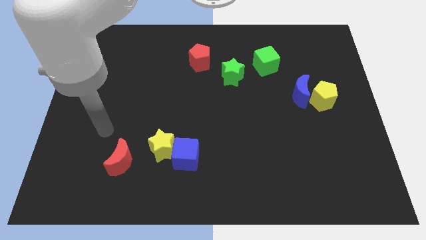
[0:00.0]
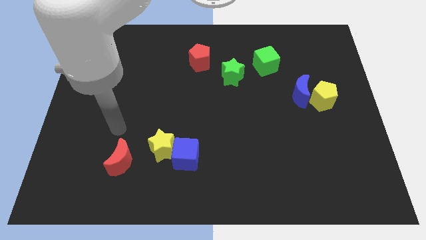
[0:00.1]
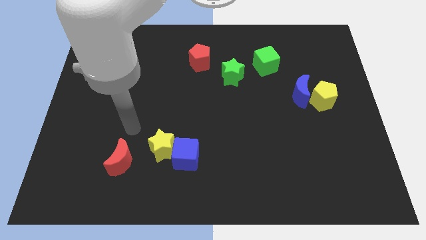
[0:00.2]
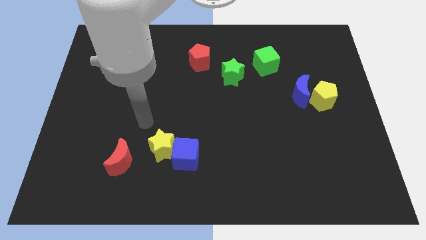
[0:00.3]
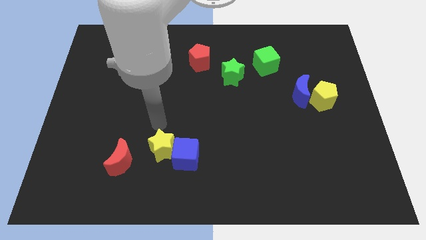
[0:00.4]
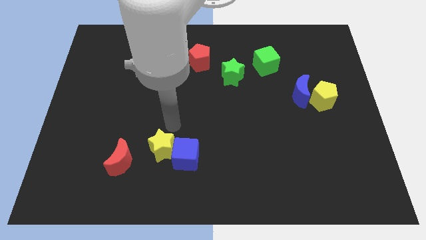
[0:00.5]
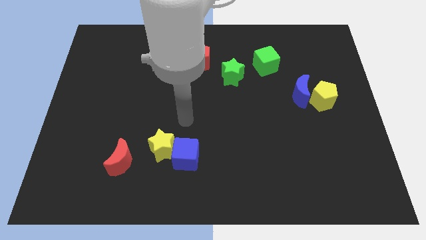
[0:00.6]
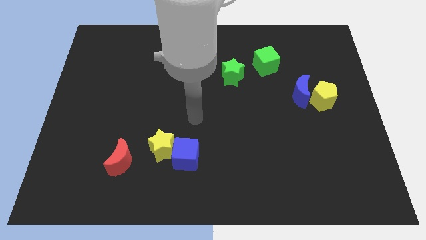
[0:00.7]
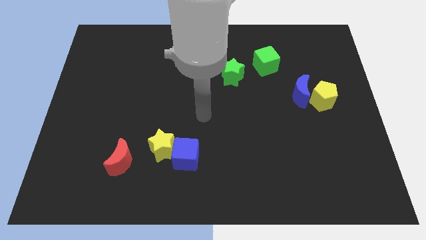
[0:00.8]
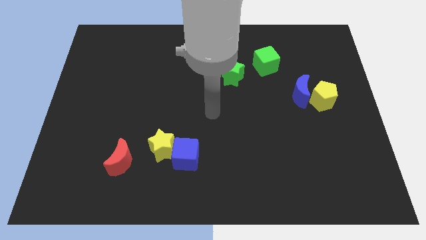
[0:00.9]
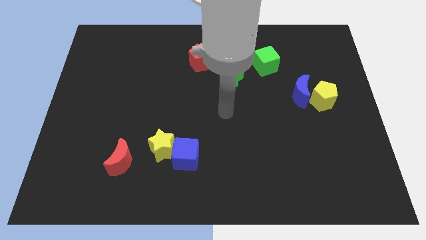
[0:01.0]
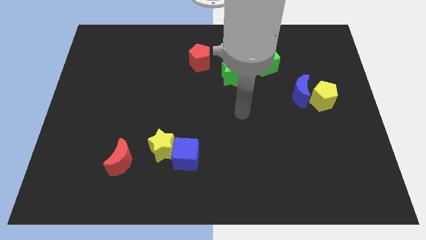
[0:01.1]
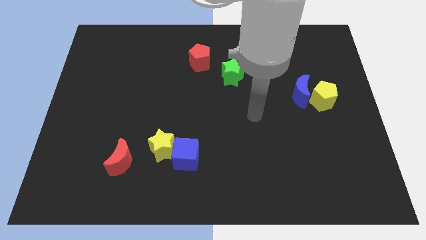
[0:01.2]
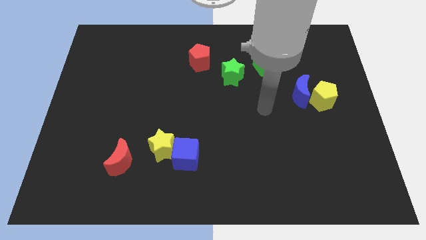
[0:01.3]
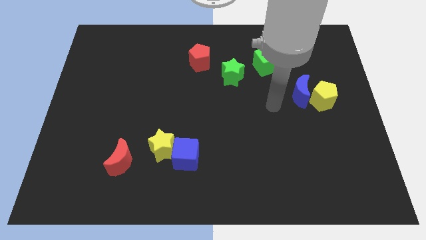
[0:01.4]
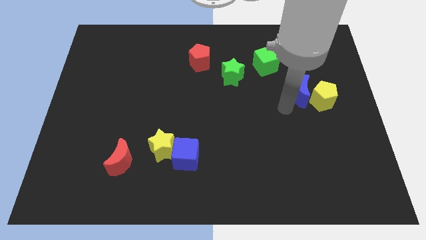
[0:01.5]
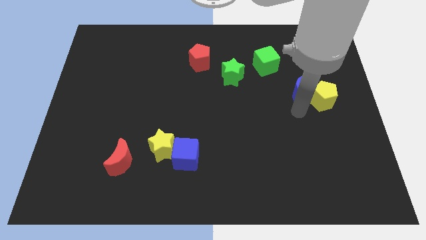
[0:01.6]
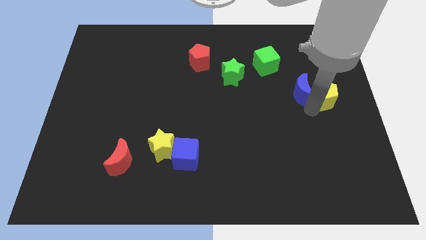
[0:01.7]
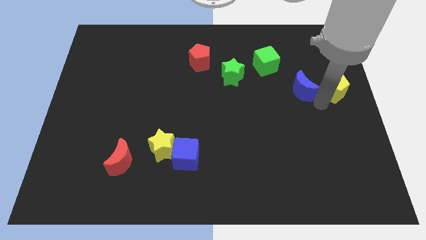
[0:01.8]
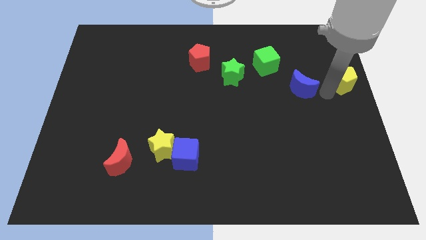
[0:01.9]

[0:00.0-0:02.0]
separate the blue moon from the yellow pentagon

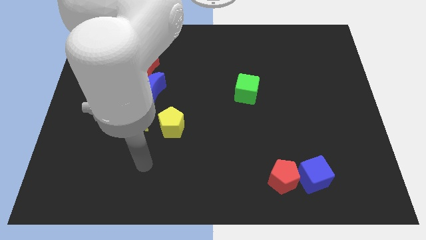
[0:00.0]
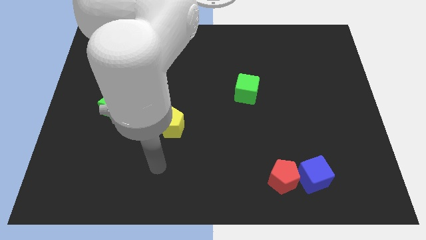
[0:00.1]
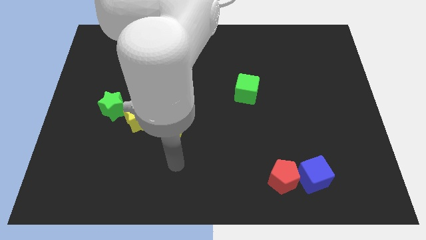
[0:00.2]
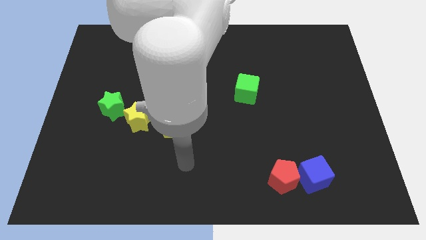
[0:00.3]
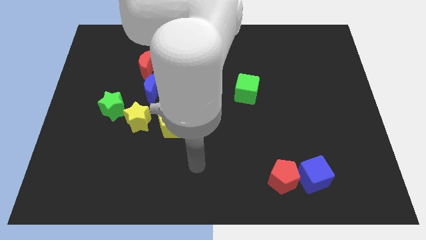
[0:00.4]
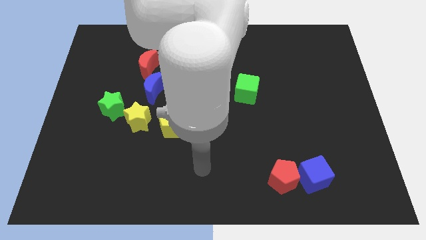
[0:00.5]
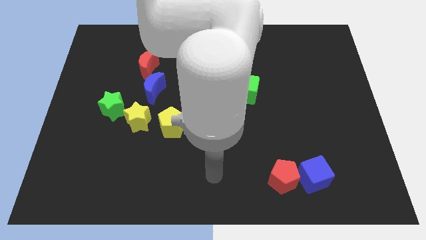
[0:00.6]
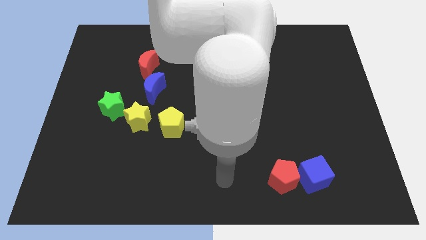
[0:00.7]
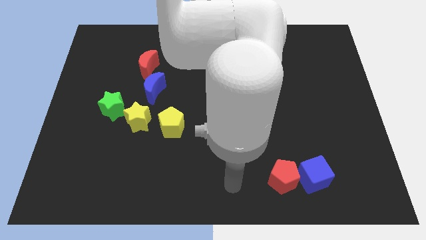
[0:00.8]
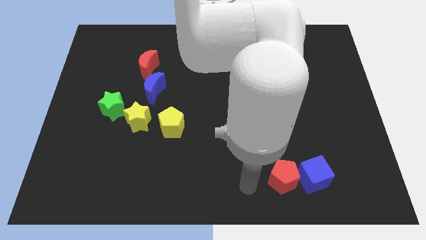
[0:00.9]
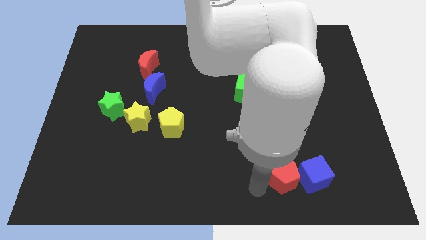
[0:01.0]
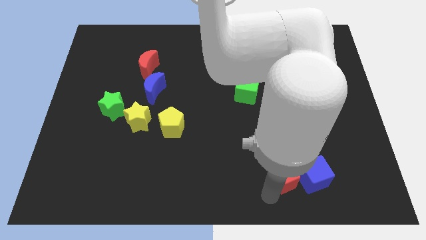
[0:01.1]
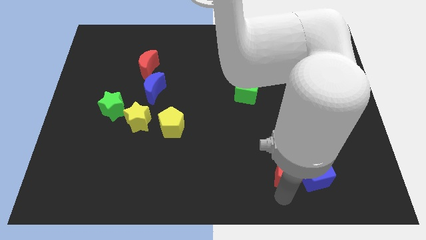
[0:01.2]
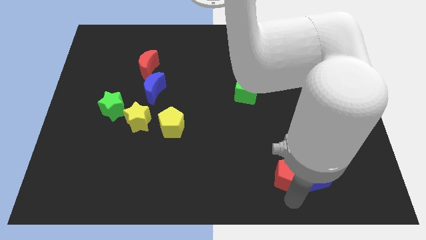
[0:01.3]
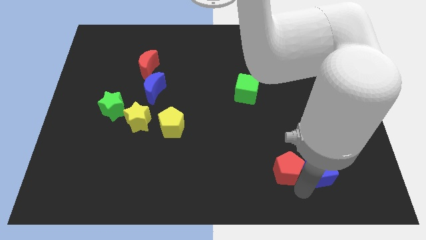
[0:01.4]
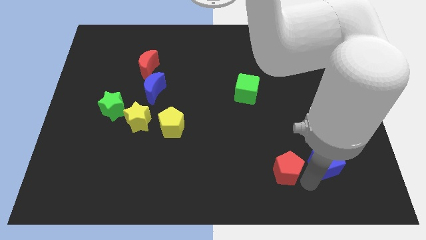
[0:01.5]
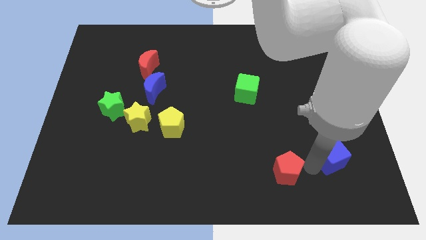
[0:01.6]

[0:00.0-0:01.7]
separate the red pentagon from the blue cube

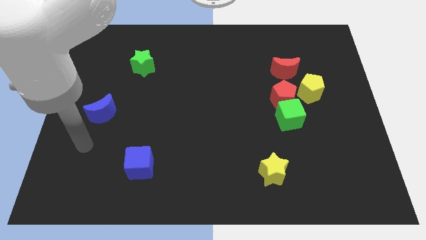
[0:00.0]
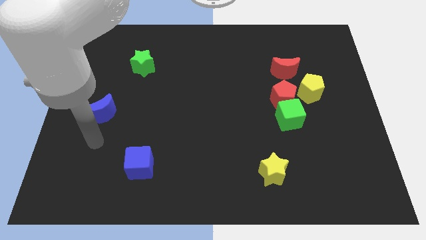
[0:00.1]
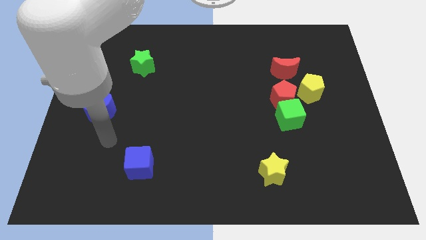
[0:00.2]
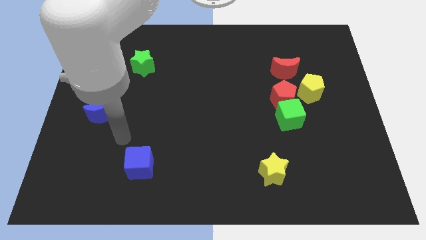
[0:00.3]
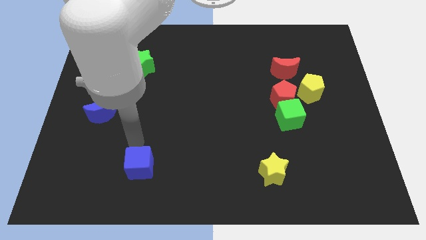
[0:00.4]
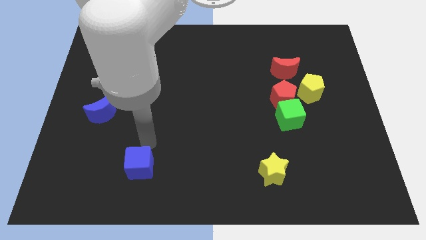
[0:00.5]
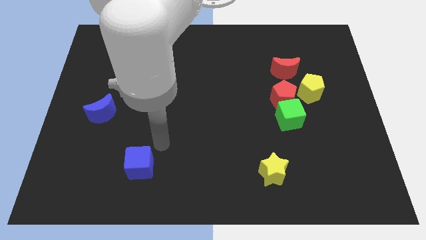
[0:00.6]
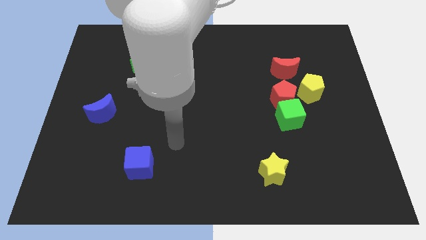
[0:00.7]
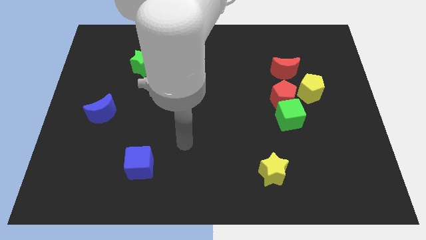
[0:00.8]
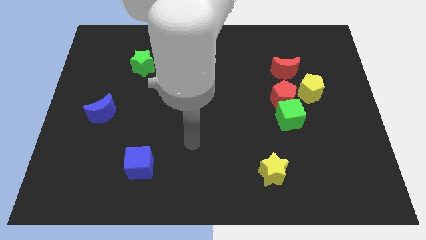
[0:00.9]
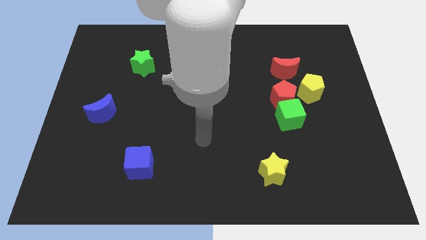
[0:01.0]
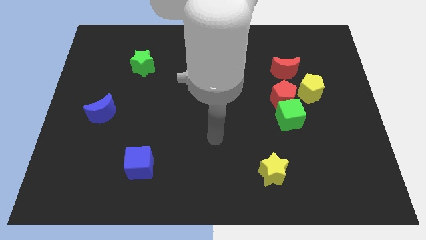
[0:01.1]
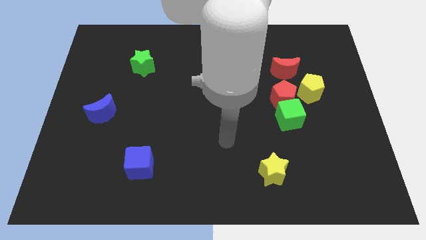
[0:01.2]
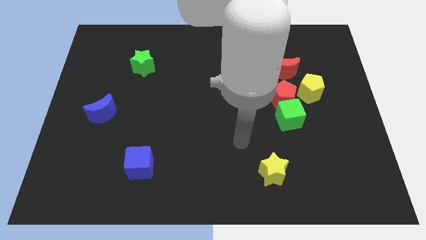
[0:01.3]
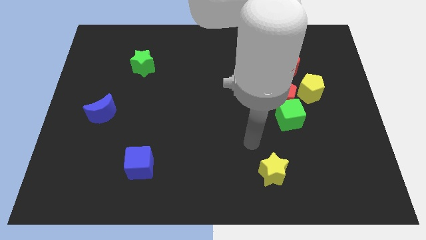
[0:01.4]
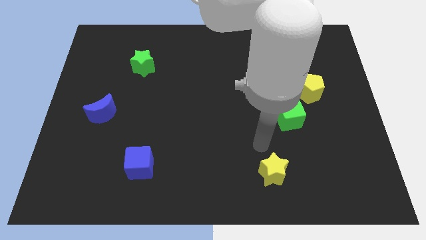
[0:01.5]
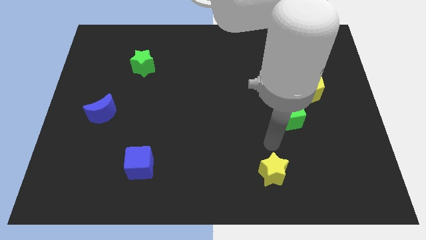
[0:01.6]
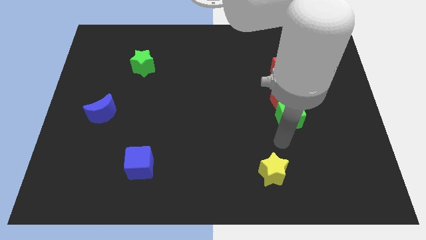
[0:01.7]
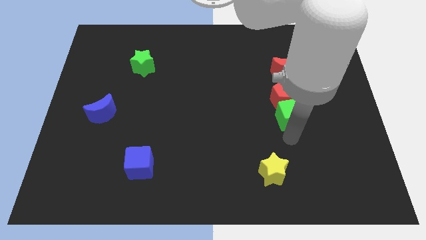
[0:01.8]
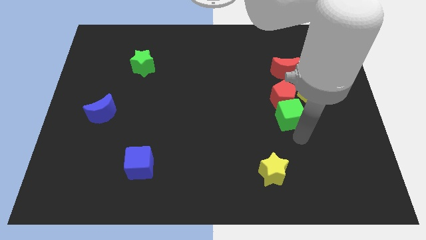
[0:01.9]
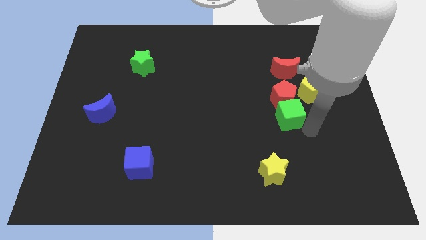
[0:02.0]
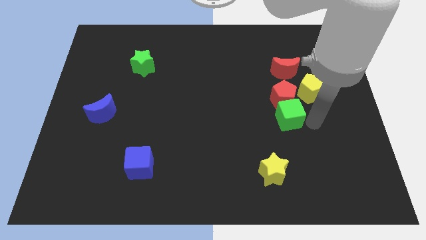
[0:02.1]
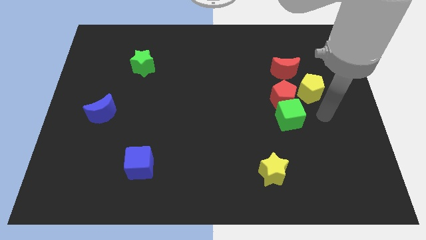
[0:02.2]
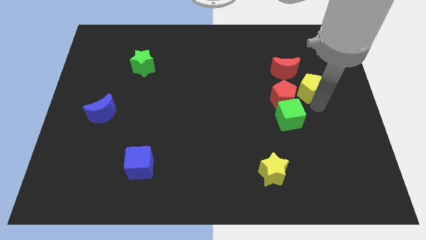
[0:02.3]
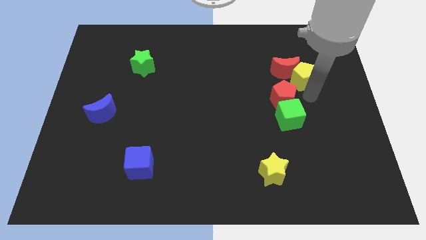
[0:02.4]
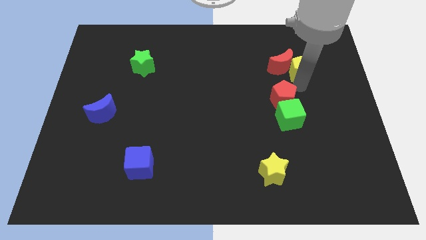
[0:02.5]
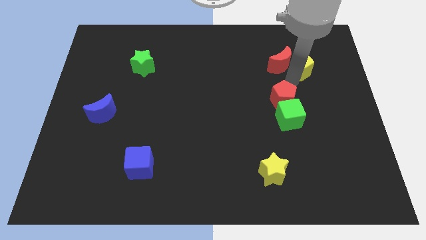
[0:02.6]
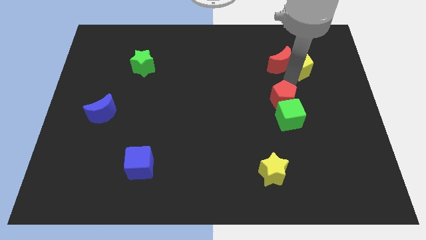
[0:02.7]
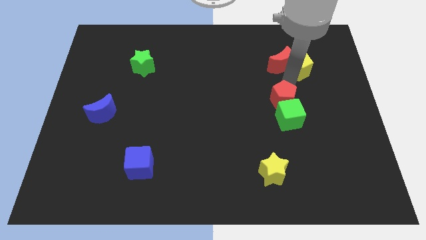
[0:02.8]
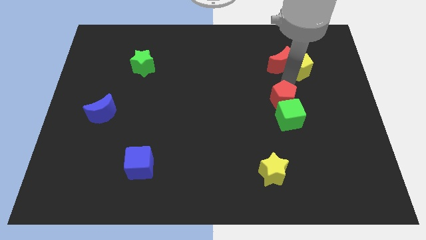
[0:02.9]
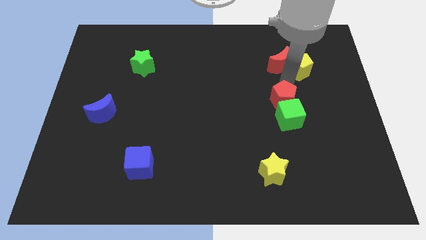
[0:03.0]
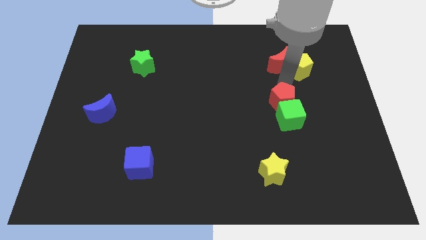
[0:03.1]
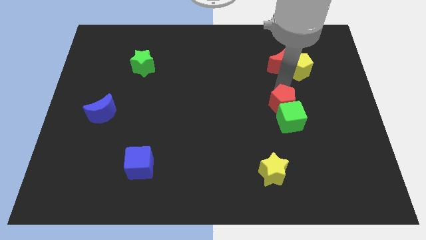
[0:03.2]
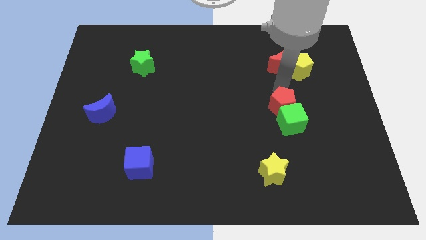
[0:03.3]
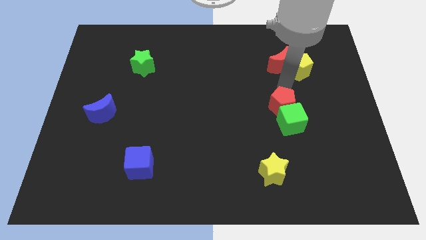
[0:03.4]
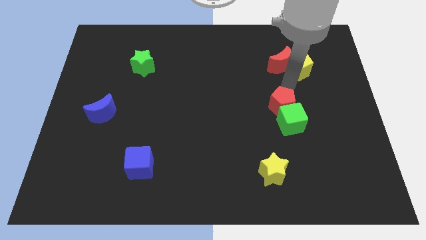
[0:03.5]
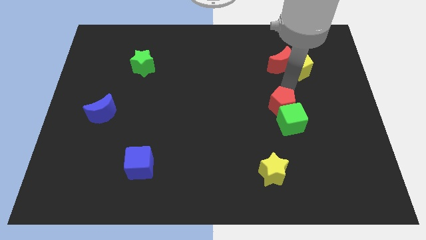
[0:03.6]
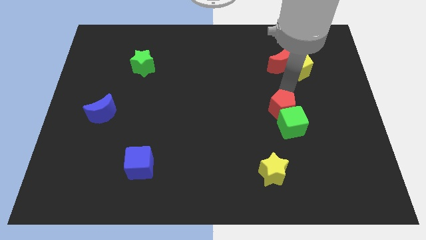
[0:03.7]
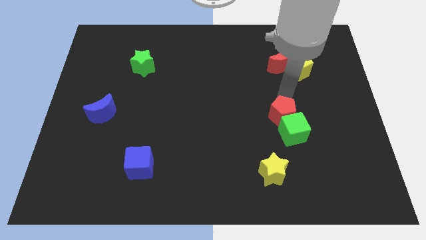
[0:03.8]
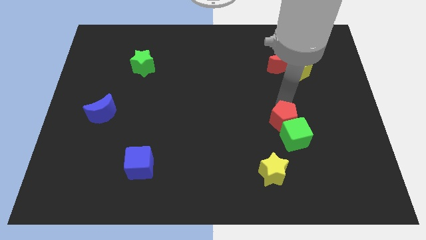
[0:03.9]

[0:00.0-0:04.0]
pull the red pentagon apart from the green cube, yellow pentagon, and red moon

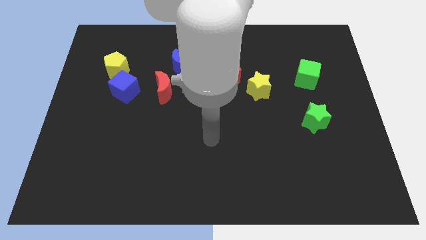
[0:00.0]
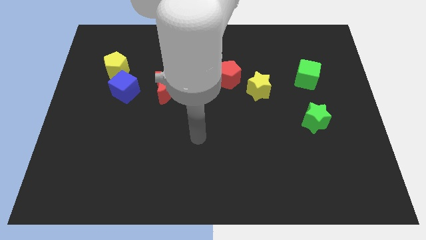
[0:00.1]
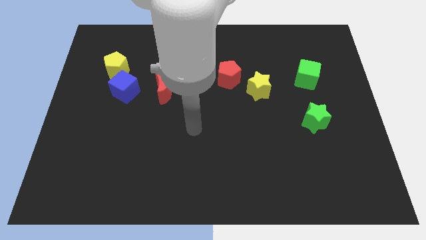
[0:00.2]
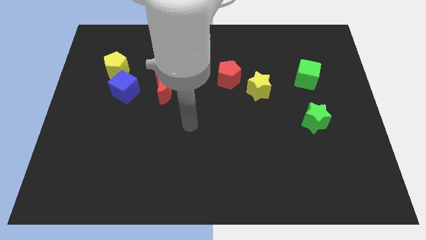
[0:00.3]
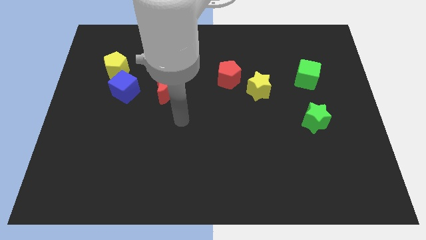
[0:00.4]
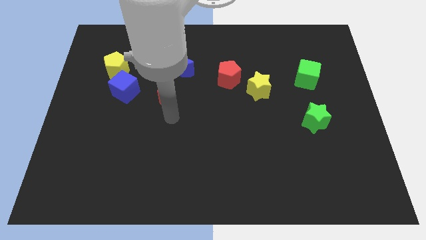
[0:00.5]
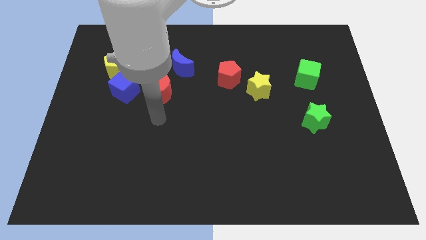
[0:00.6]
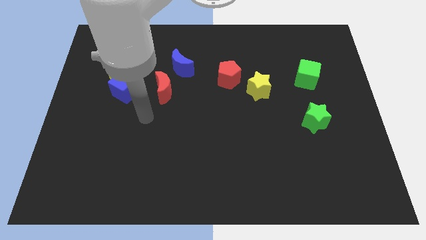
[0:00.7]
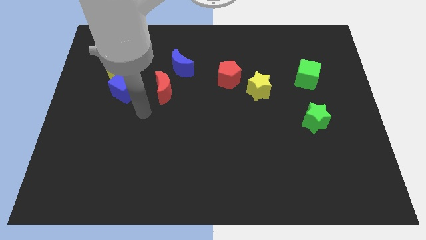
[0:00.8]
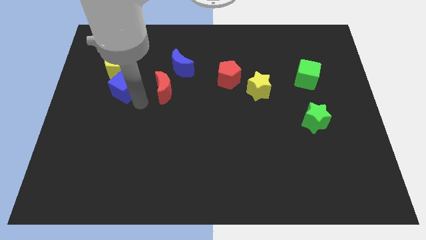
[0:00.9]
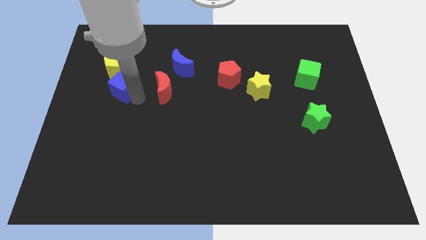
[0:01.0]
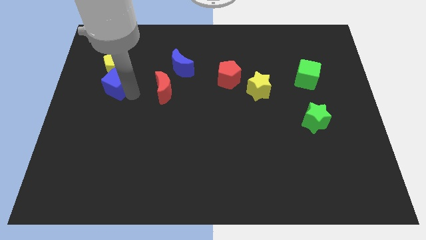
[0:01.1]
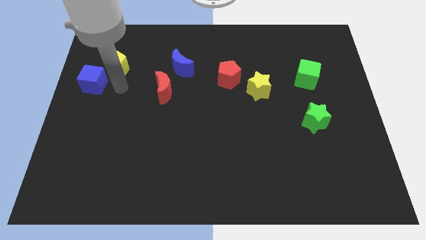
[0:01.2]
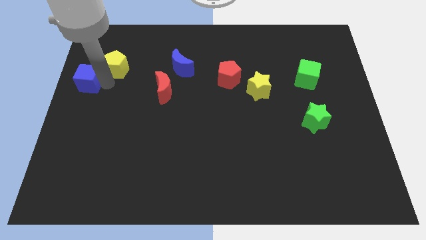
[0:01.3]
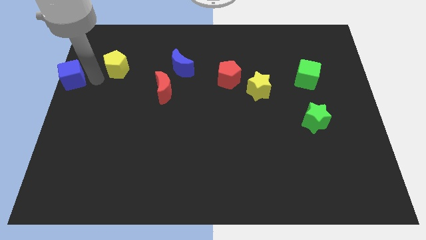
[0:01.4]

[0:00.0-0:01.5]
pull the yellow pentagon apart from the blue cube

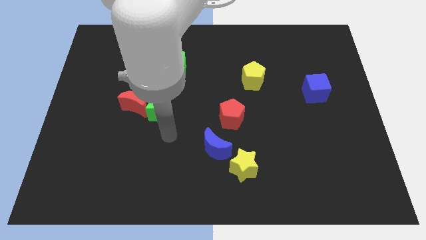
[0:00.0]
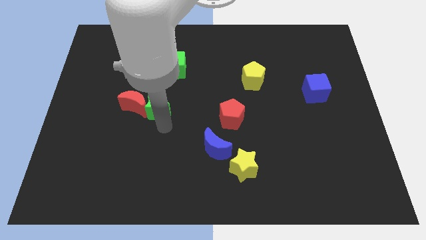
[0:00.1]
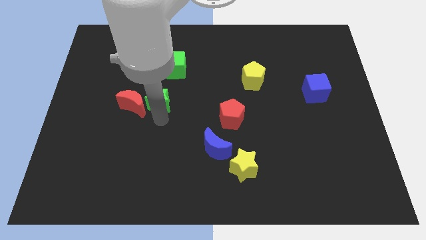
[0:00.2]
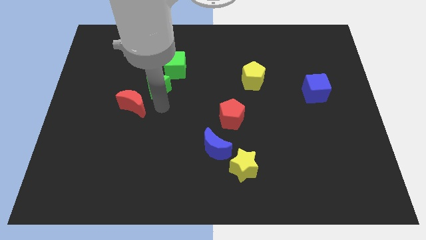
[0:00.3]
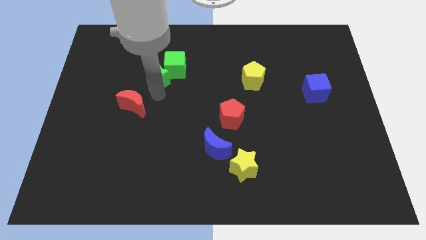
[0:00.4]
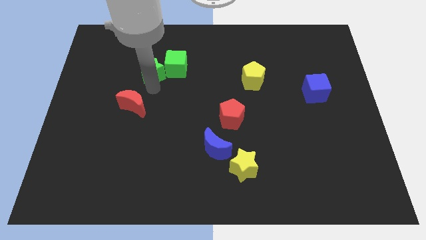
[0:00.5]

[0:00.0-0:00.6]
pull the red moon apart from the green star
